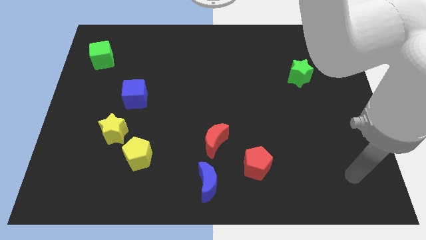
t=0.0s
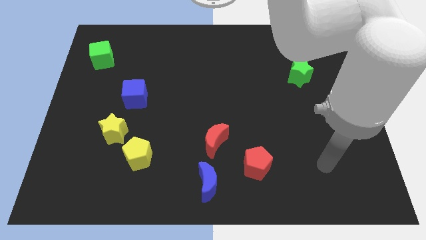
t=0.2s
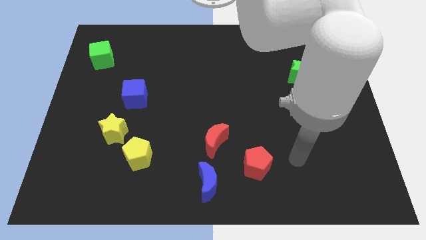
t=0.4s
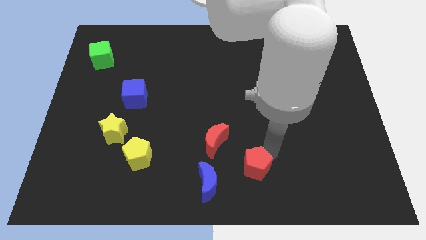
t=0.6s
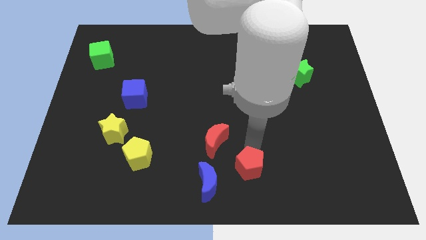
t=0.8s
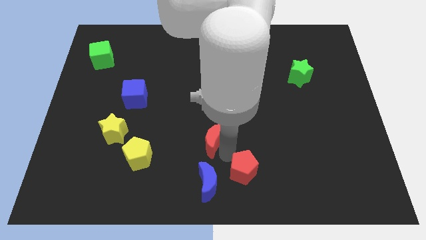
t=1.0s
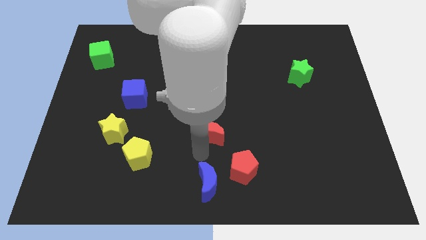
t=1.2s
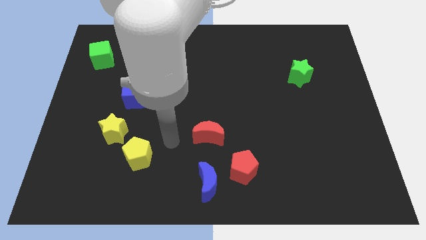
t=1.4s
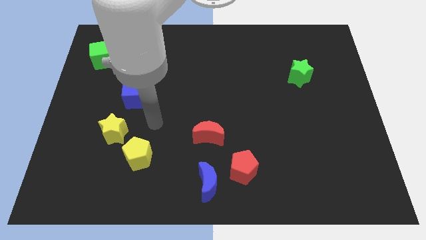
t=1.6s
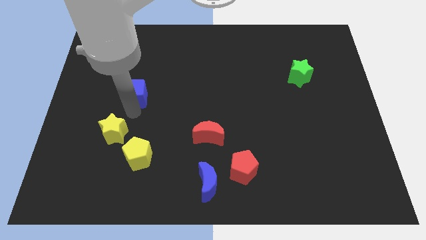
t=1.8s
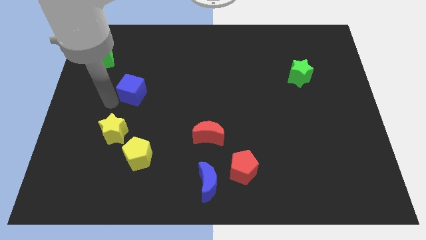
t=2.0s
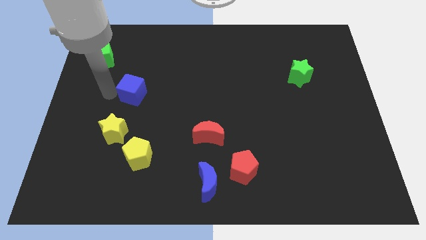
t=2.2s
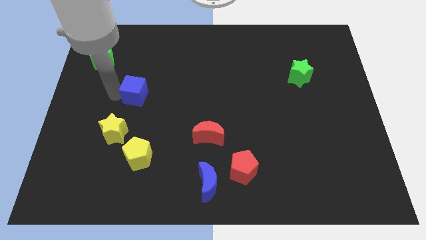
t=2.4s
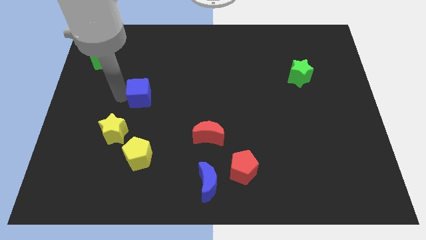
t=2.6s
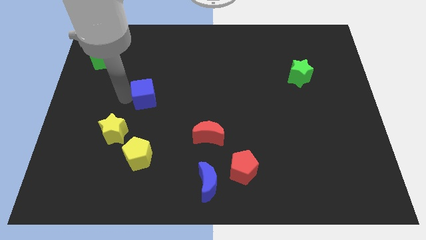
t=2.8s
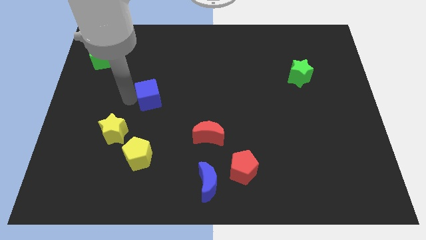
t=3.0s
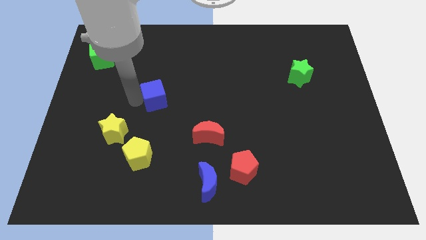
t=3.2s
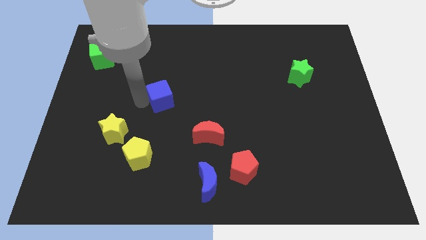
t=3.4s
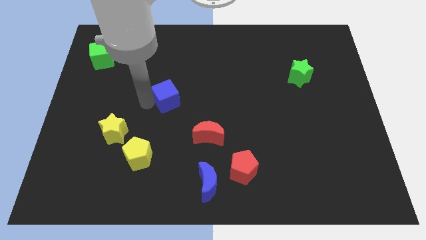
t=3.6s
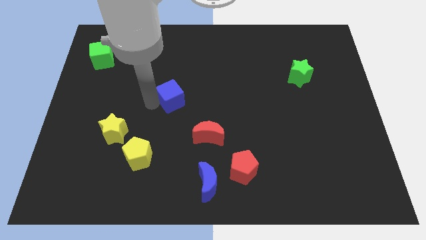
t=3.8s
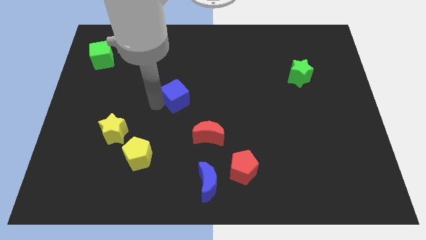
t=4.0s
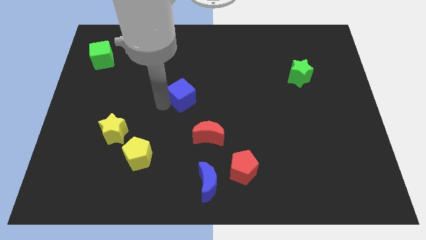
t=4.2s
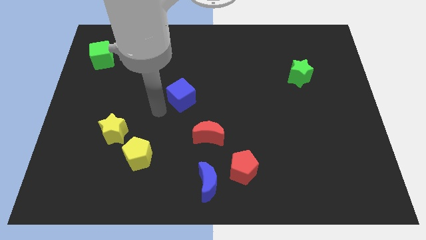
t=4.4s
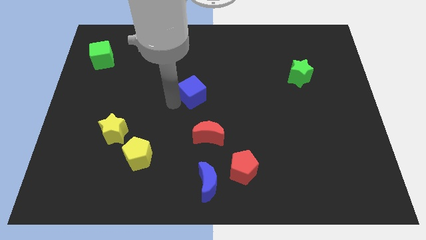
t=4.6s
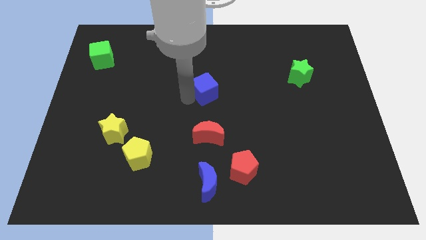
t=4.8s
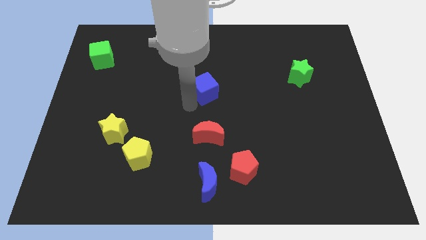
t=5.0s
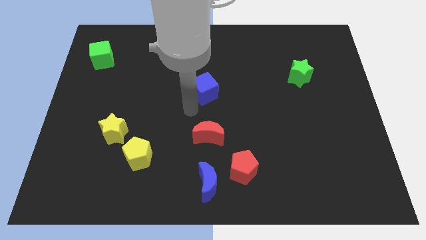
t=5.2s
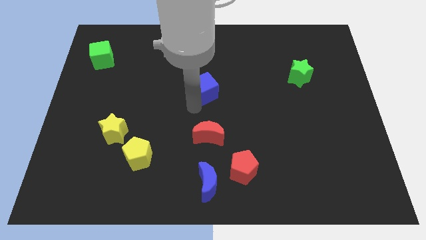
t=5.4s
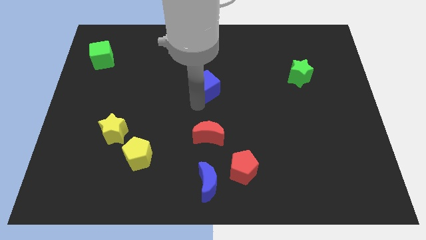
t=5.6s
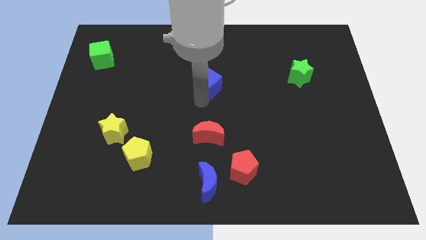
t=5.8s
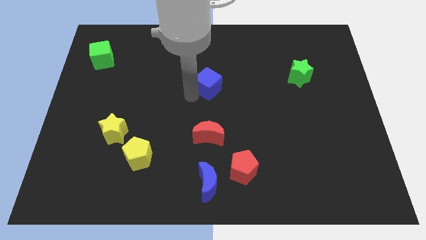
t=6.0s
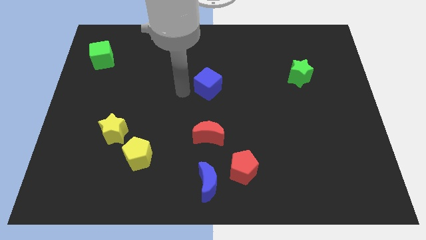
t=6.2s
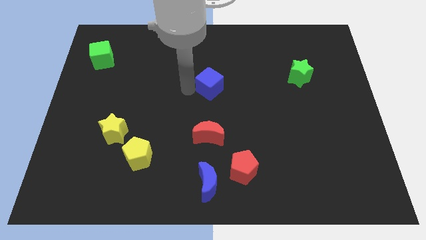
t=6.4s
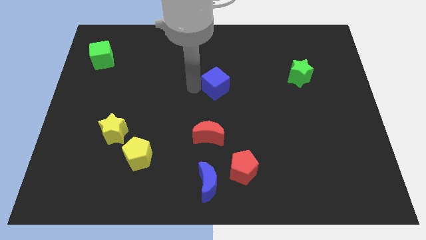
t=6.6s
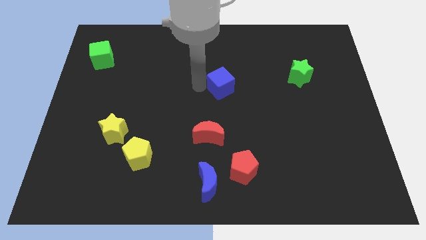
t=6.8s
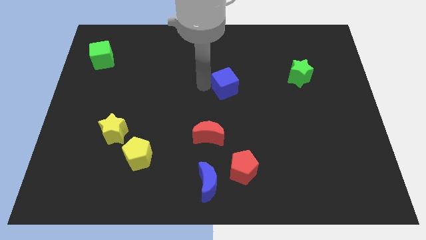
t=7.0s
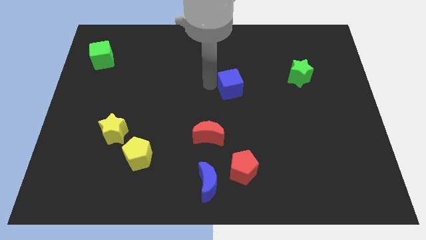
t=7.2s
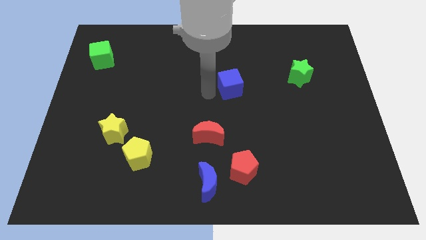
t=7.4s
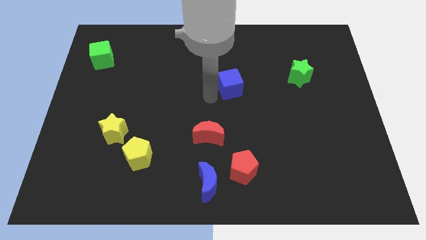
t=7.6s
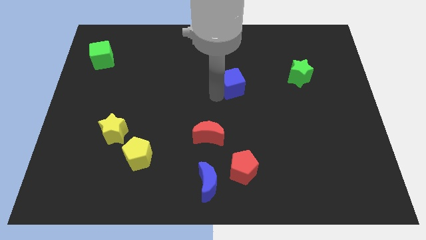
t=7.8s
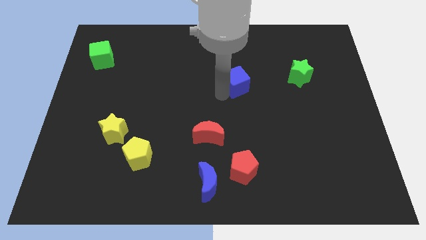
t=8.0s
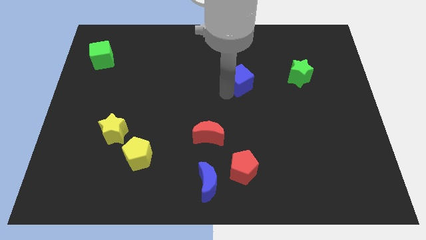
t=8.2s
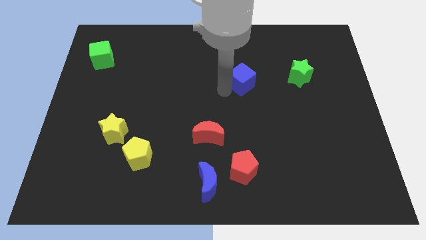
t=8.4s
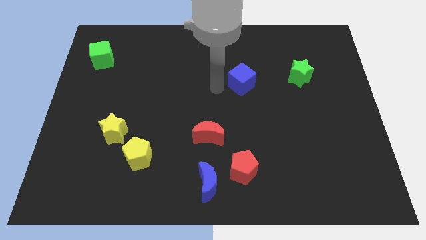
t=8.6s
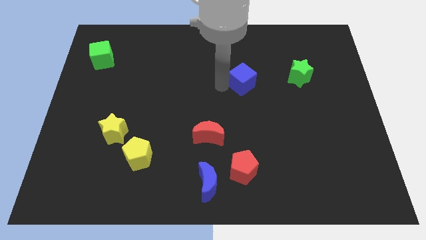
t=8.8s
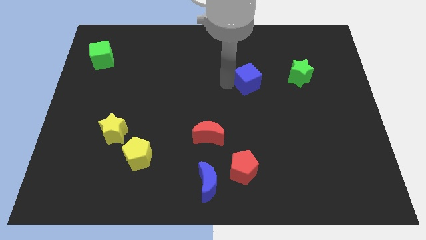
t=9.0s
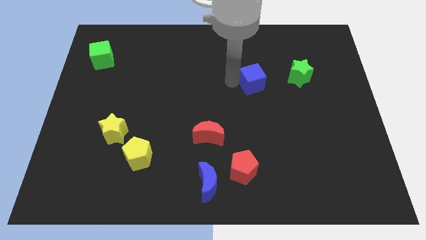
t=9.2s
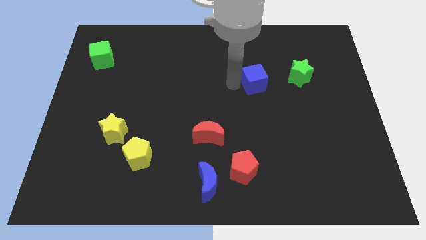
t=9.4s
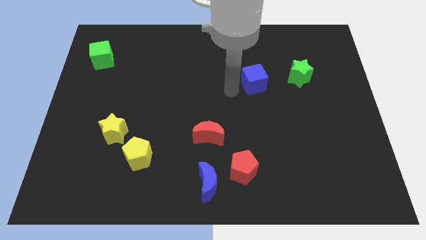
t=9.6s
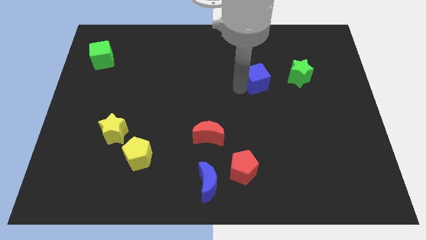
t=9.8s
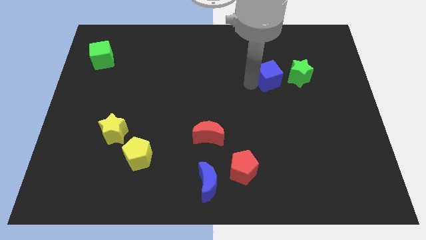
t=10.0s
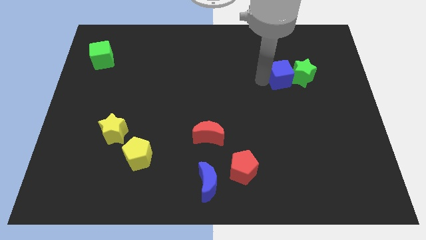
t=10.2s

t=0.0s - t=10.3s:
move the blue cube close to the green star

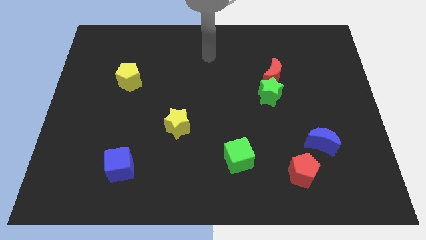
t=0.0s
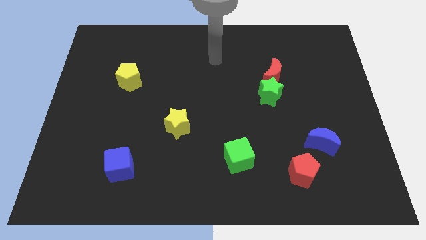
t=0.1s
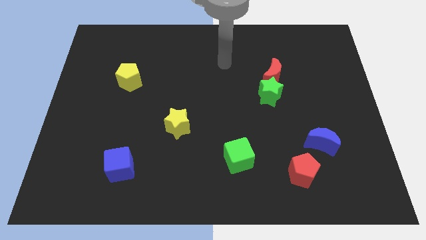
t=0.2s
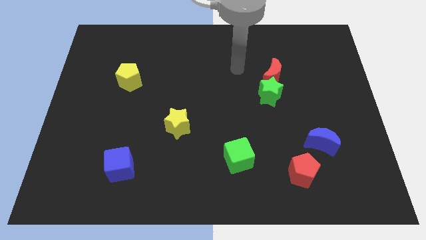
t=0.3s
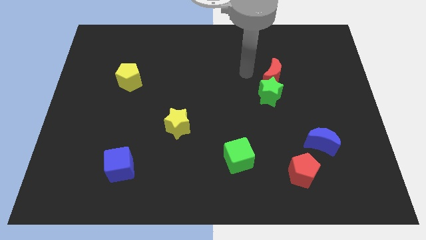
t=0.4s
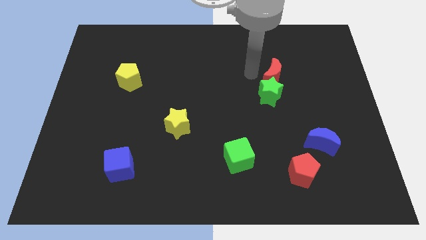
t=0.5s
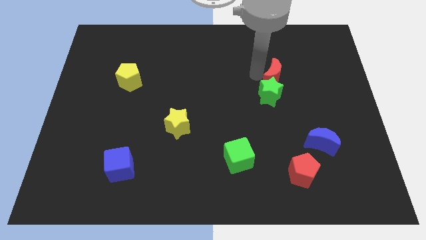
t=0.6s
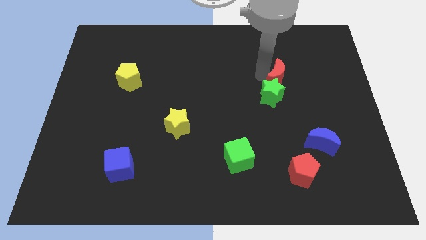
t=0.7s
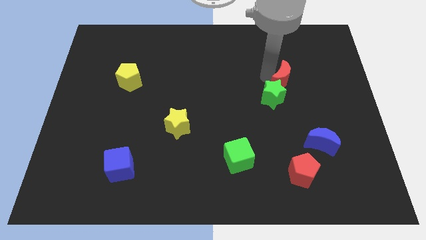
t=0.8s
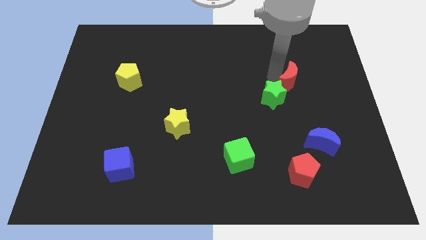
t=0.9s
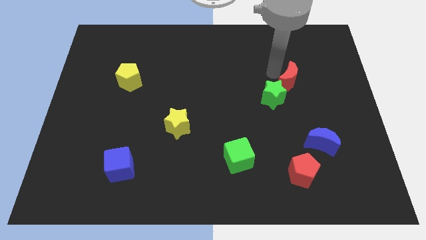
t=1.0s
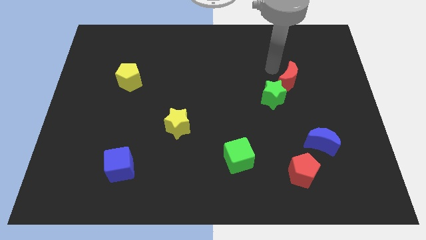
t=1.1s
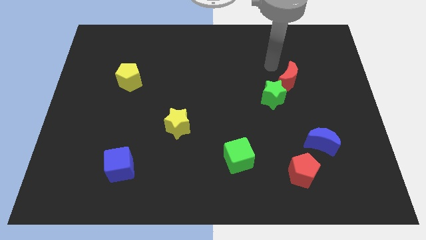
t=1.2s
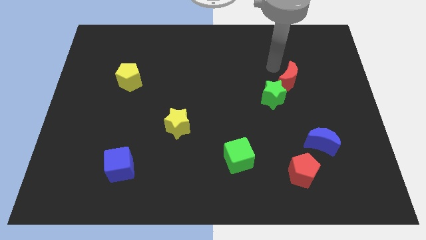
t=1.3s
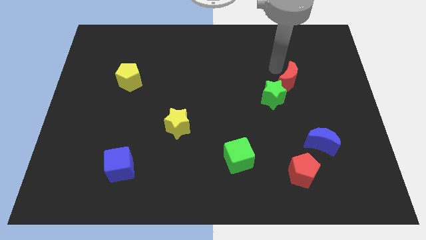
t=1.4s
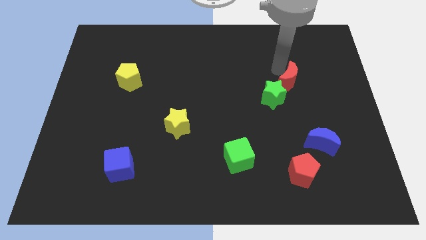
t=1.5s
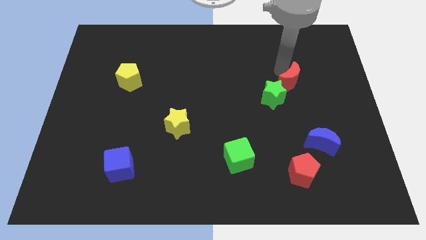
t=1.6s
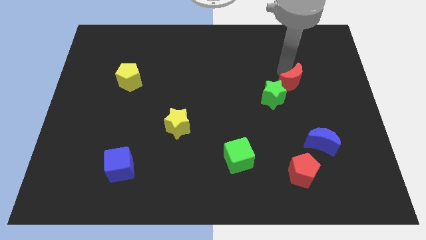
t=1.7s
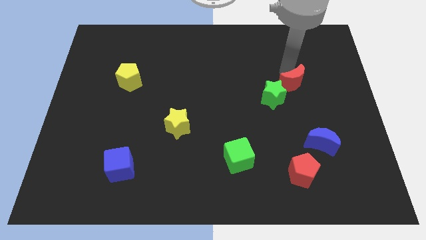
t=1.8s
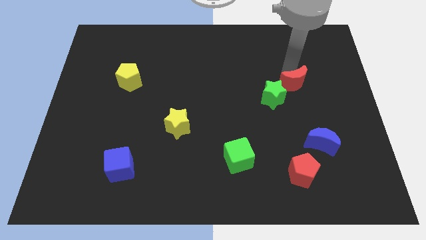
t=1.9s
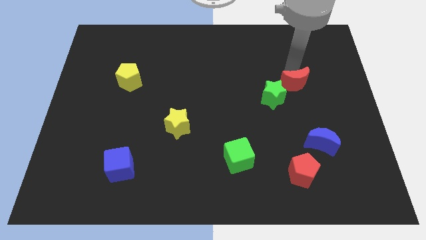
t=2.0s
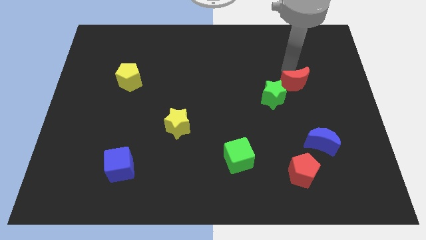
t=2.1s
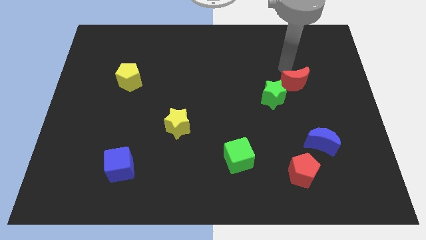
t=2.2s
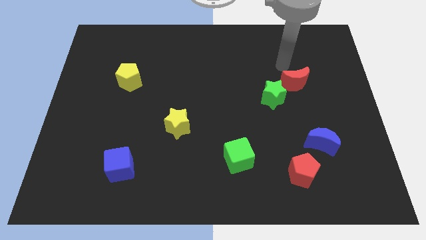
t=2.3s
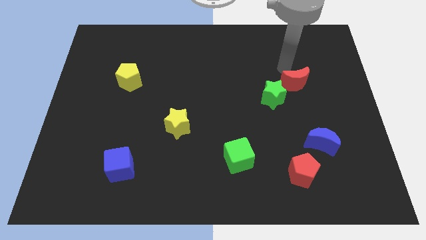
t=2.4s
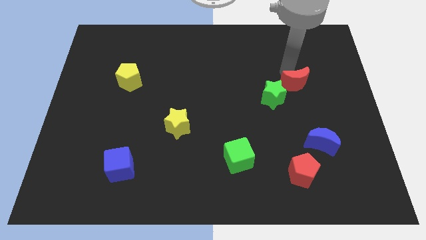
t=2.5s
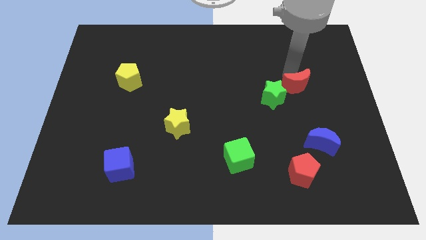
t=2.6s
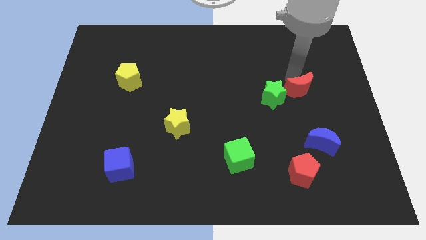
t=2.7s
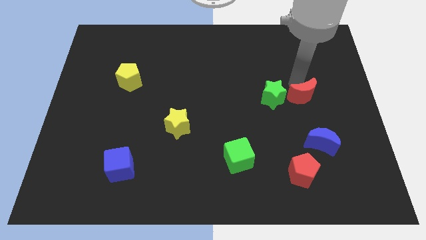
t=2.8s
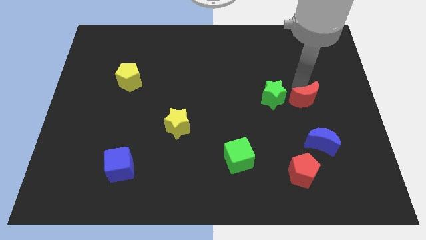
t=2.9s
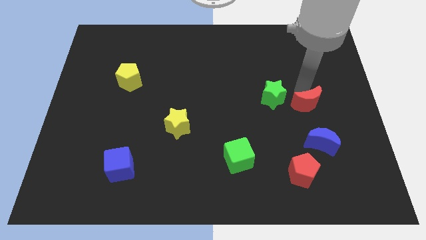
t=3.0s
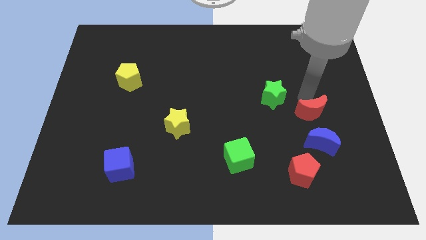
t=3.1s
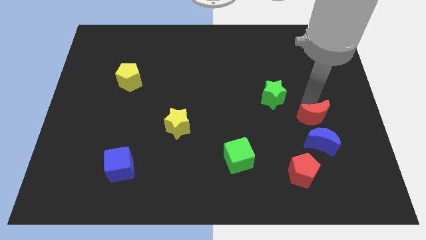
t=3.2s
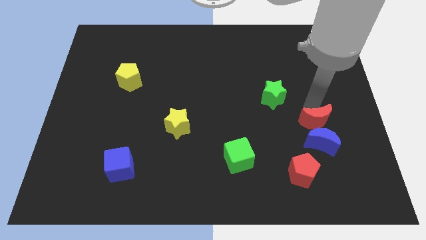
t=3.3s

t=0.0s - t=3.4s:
put the red moon close to the blue moon
